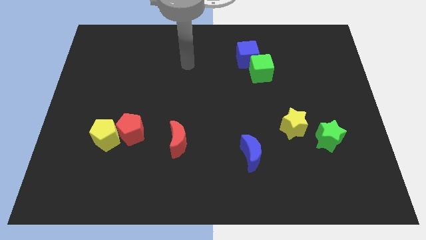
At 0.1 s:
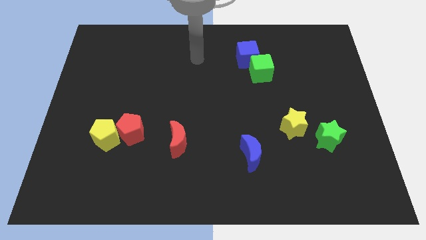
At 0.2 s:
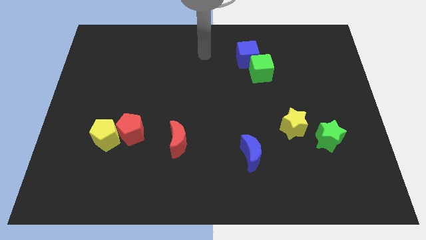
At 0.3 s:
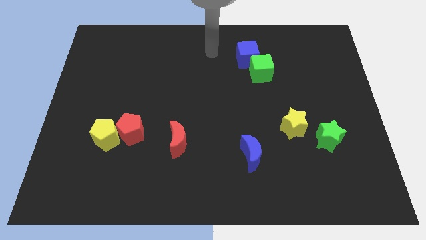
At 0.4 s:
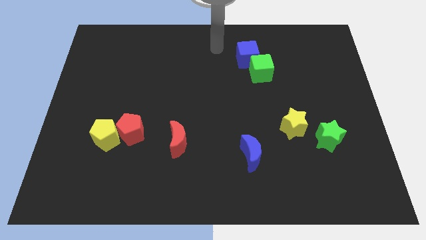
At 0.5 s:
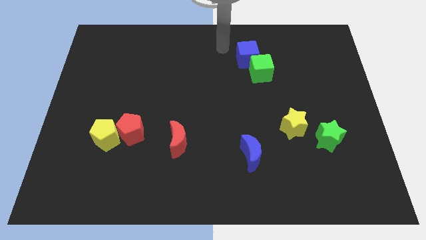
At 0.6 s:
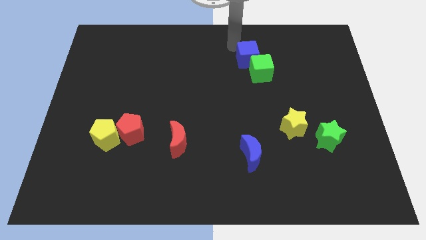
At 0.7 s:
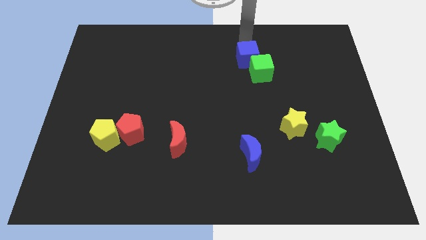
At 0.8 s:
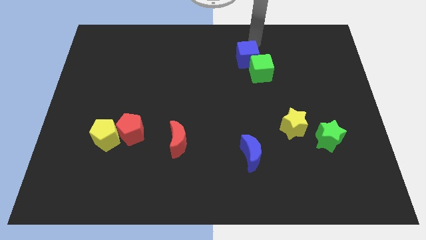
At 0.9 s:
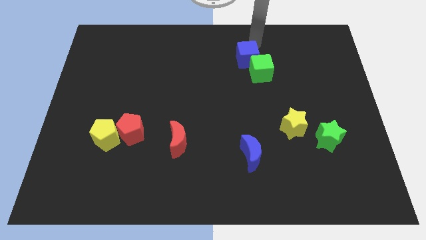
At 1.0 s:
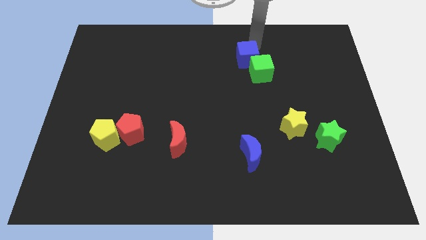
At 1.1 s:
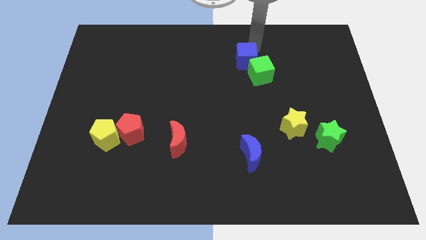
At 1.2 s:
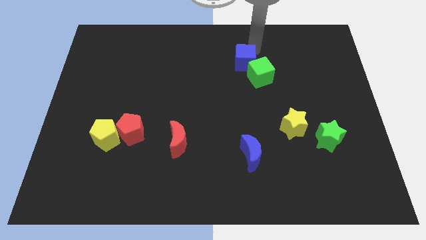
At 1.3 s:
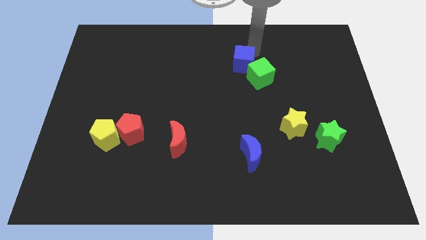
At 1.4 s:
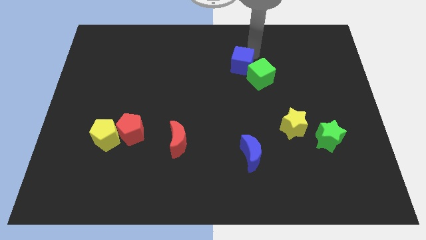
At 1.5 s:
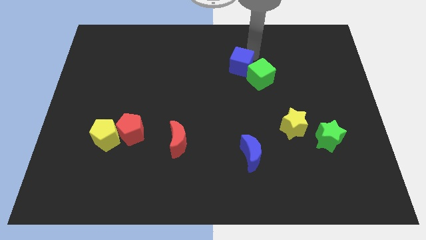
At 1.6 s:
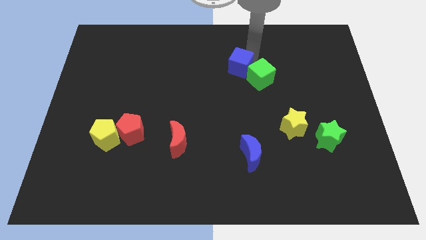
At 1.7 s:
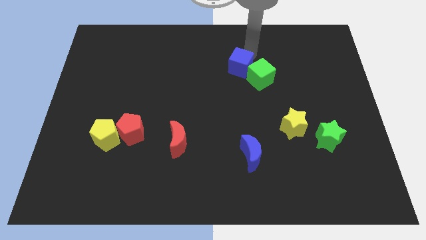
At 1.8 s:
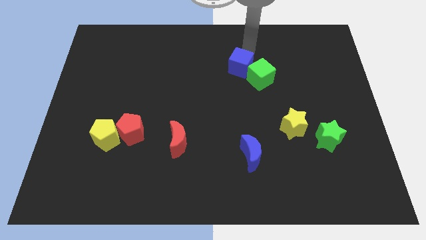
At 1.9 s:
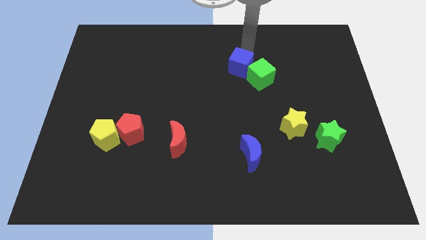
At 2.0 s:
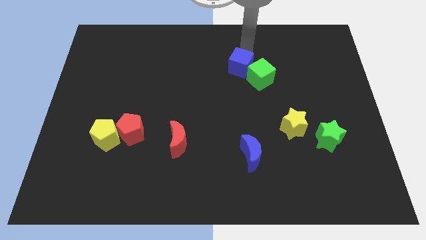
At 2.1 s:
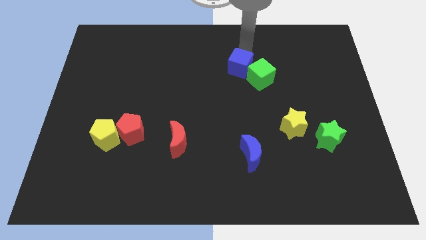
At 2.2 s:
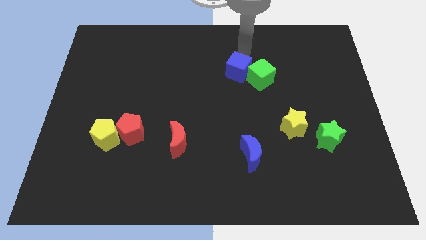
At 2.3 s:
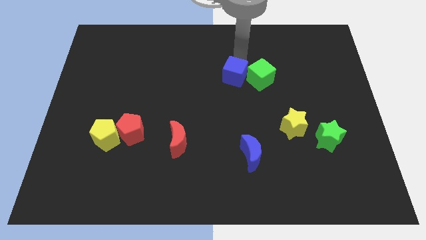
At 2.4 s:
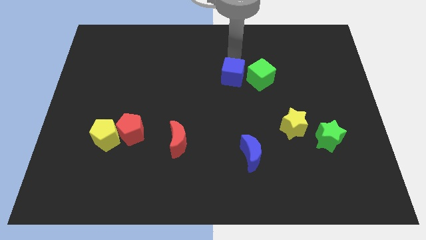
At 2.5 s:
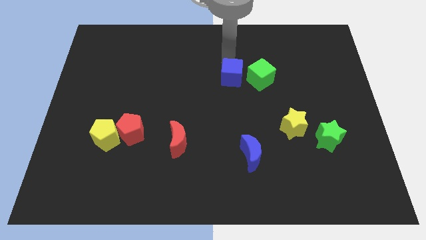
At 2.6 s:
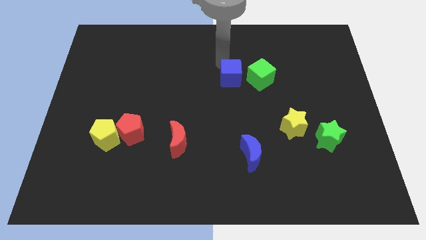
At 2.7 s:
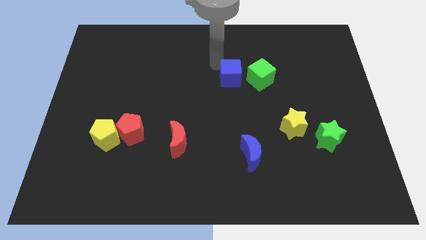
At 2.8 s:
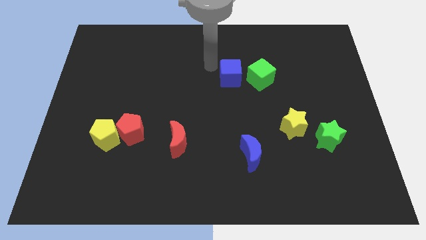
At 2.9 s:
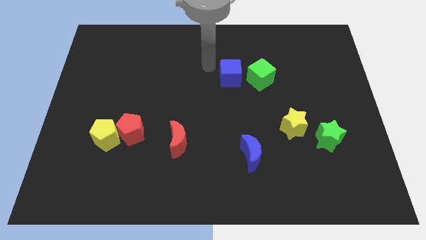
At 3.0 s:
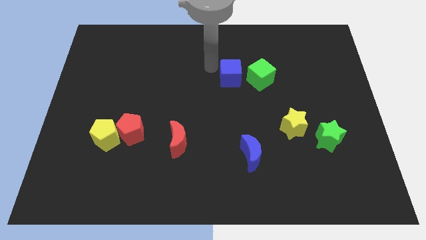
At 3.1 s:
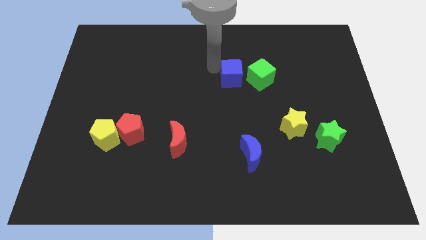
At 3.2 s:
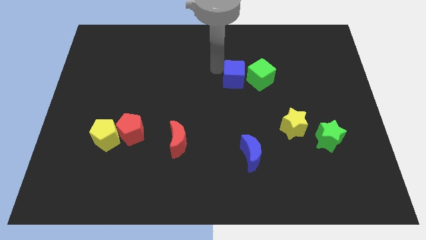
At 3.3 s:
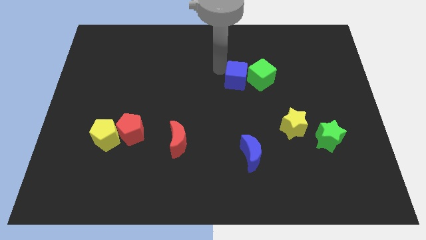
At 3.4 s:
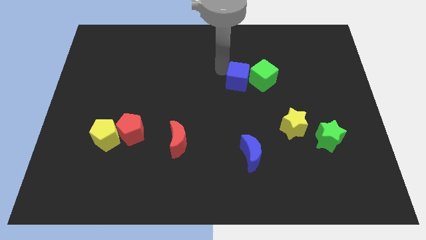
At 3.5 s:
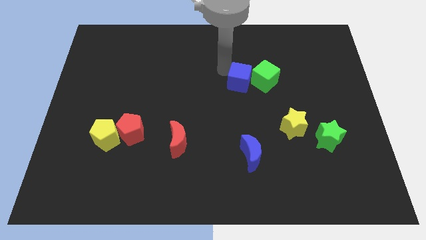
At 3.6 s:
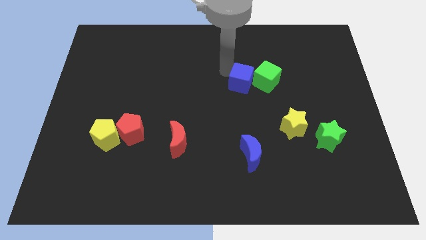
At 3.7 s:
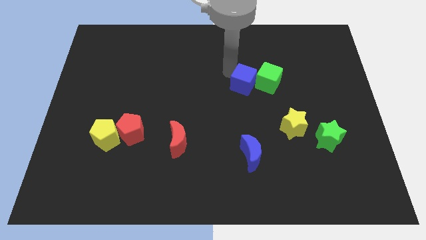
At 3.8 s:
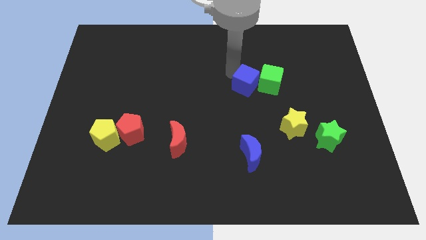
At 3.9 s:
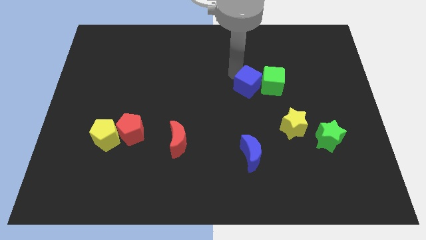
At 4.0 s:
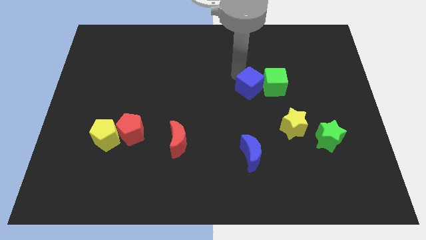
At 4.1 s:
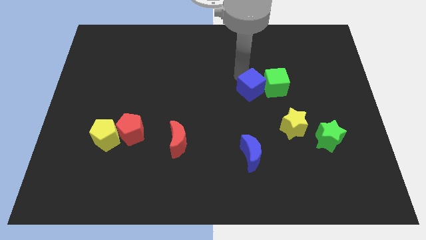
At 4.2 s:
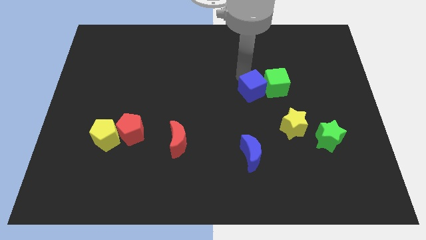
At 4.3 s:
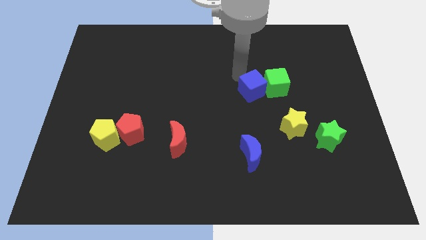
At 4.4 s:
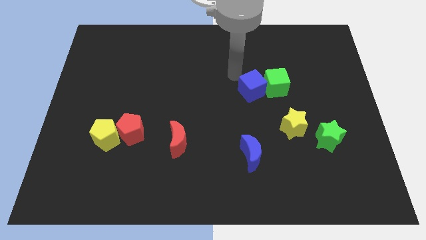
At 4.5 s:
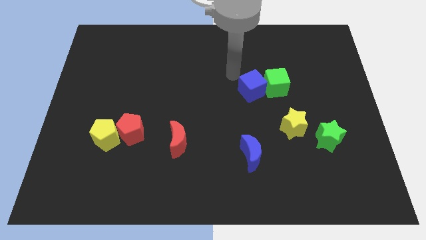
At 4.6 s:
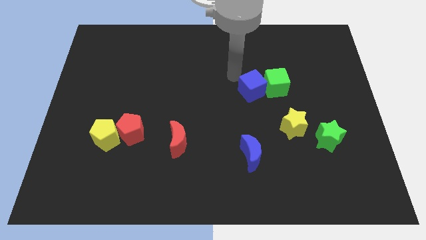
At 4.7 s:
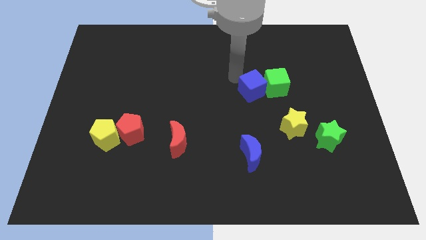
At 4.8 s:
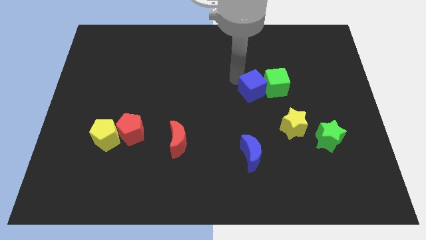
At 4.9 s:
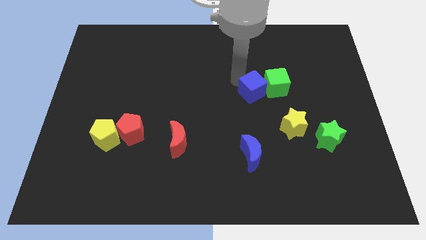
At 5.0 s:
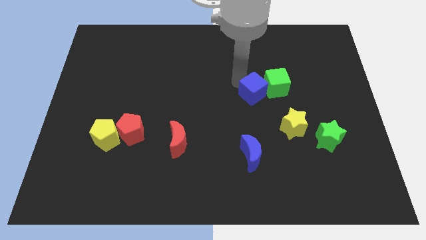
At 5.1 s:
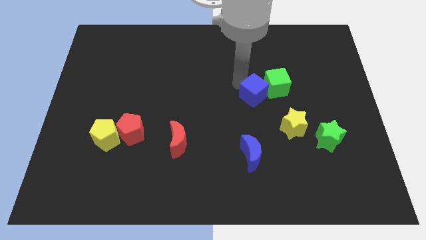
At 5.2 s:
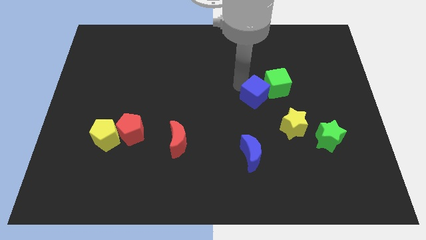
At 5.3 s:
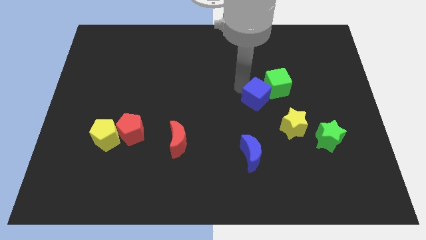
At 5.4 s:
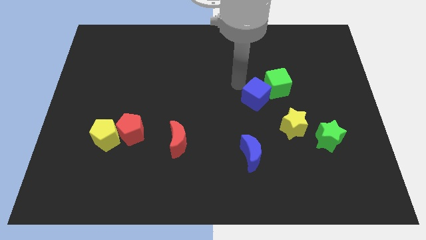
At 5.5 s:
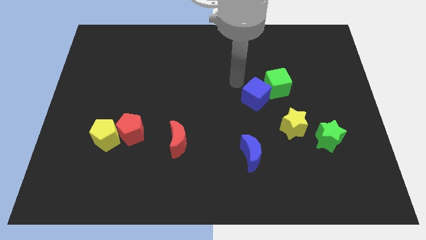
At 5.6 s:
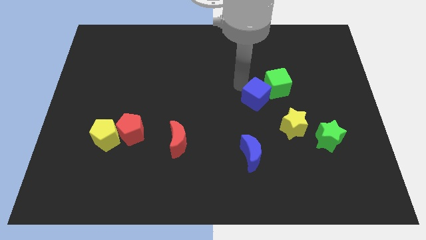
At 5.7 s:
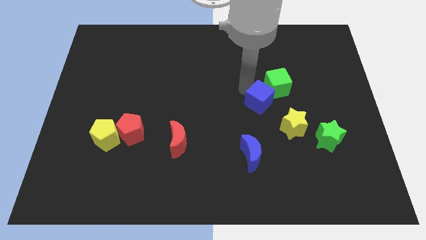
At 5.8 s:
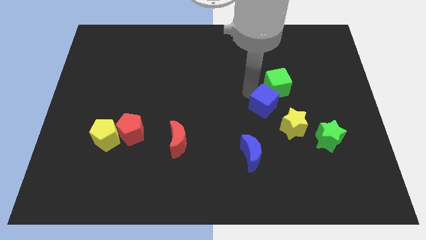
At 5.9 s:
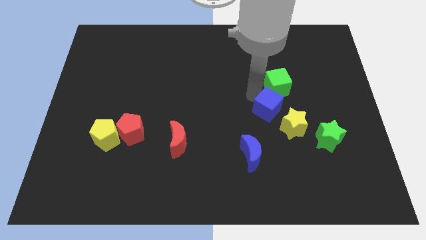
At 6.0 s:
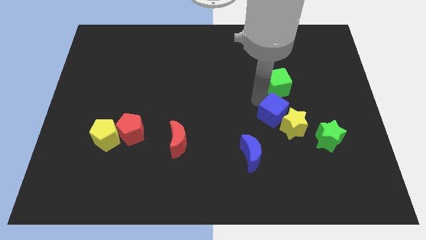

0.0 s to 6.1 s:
move the blue cube to the yellow star

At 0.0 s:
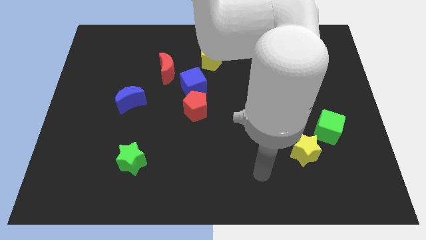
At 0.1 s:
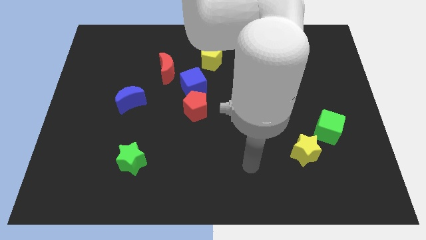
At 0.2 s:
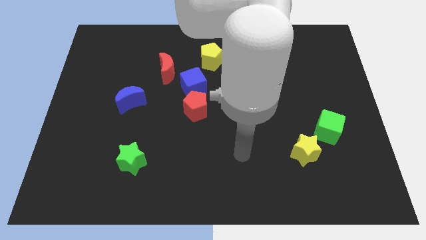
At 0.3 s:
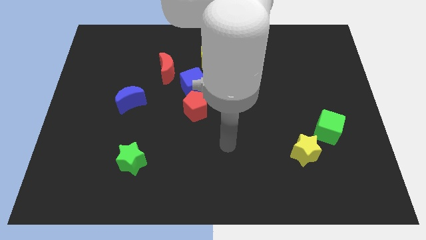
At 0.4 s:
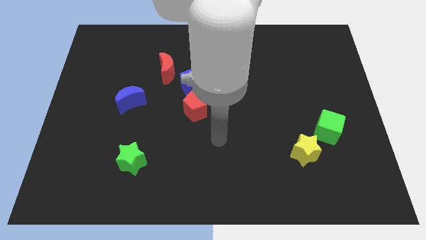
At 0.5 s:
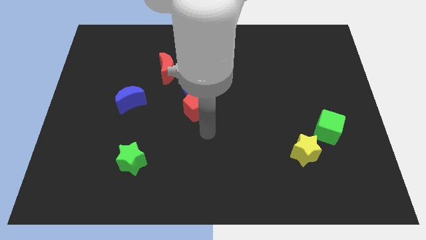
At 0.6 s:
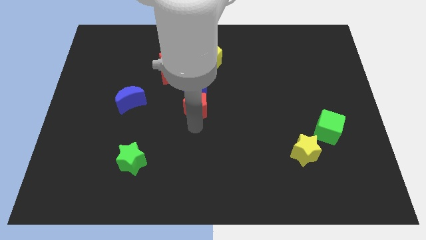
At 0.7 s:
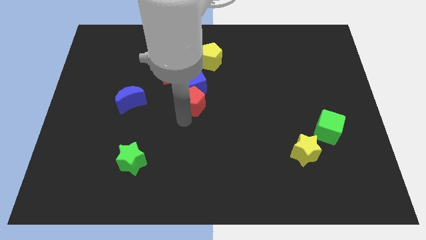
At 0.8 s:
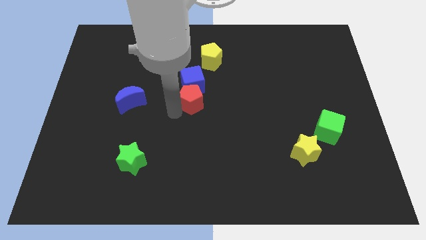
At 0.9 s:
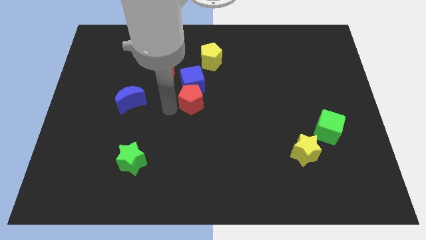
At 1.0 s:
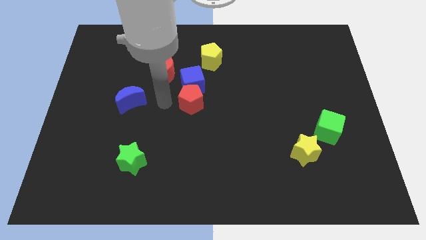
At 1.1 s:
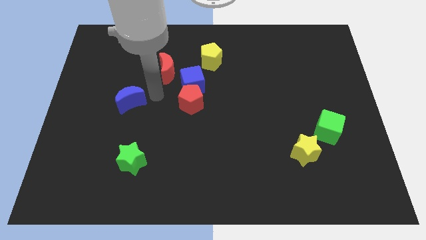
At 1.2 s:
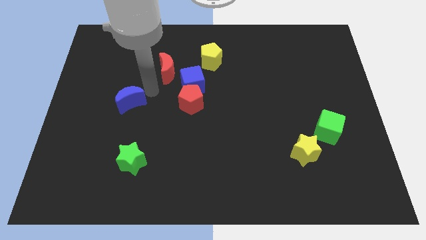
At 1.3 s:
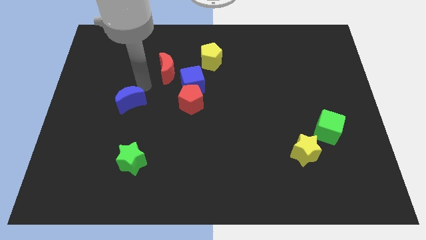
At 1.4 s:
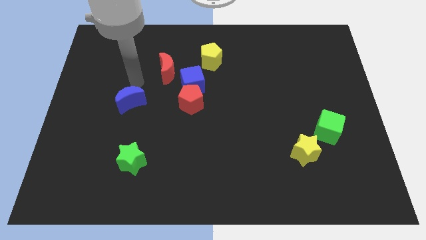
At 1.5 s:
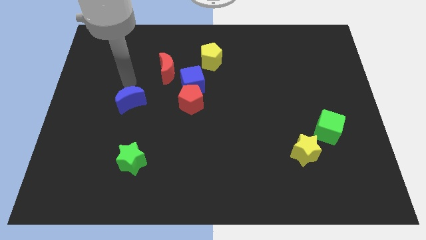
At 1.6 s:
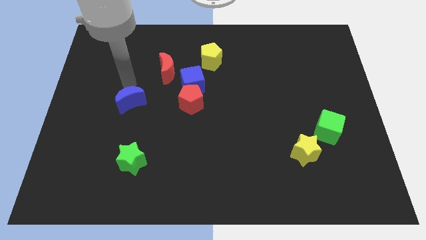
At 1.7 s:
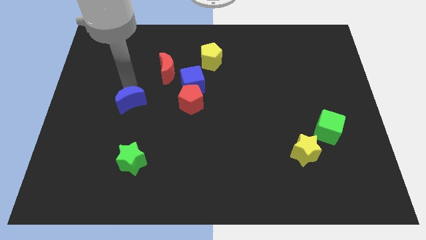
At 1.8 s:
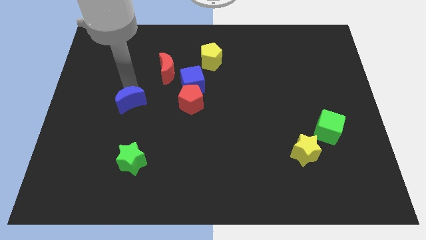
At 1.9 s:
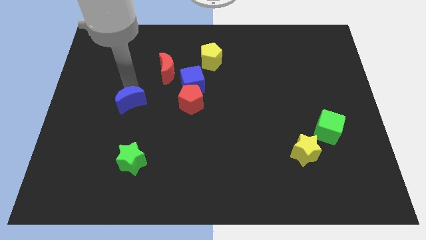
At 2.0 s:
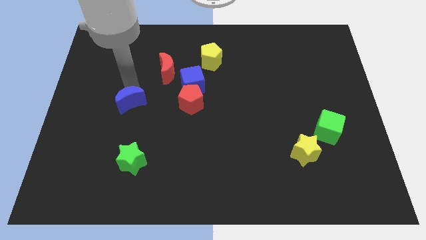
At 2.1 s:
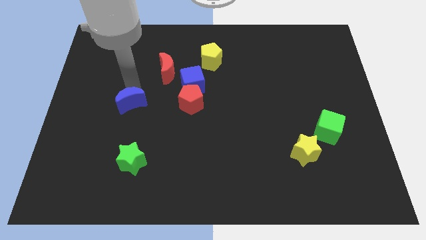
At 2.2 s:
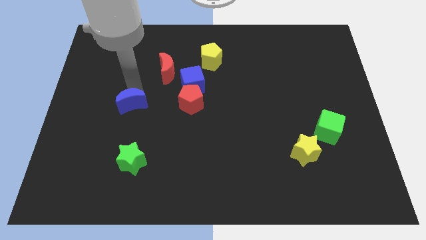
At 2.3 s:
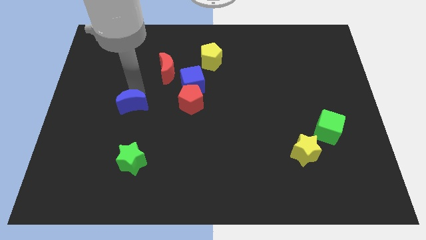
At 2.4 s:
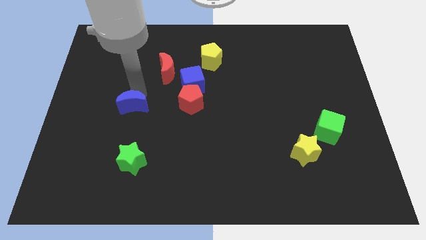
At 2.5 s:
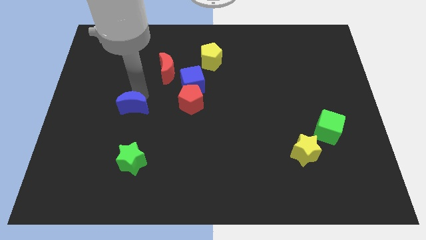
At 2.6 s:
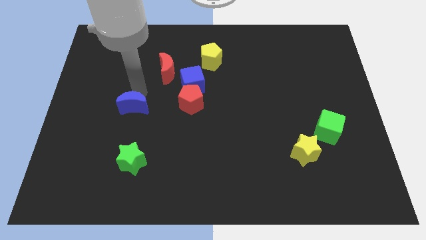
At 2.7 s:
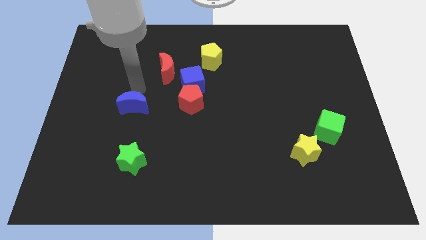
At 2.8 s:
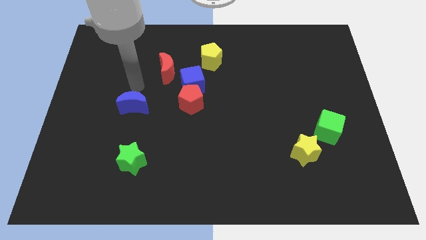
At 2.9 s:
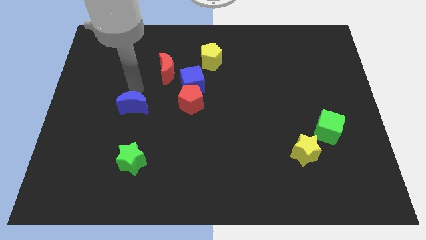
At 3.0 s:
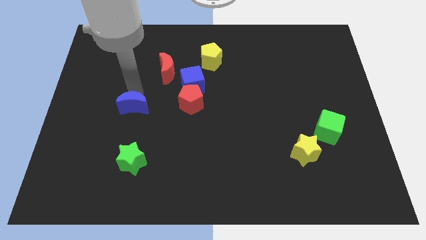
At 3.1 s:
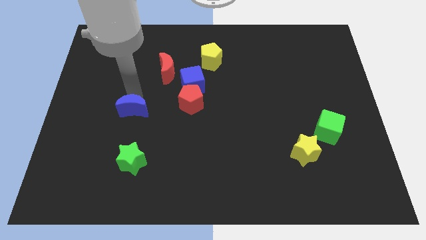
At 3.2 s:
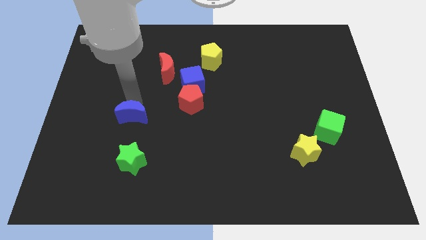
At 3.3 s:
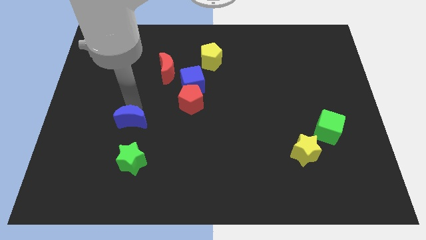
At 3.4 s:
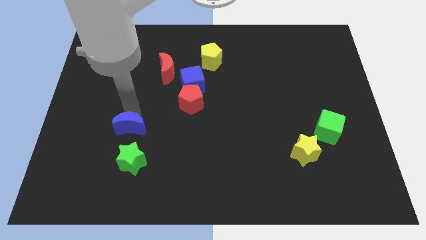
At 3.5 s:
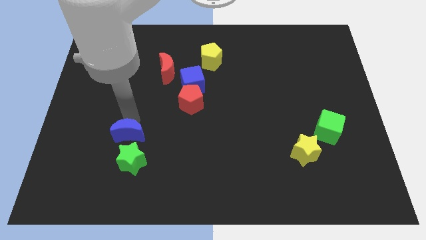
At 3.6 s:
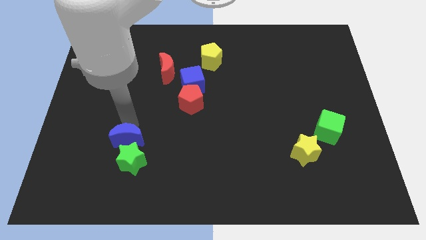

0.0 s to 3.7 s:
slide the blue moon close to the green star
